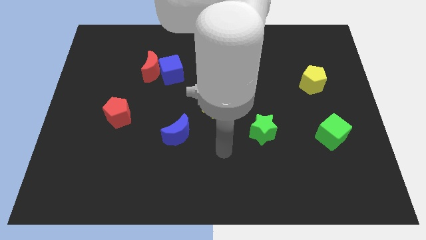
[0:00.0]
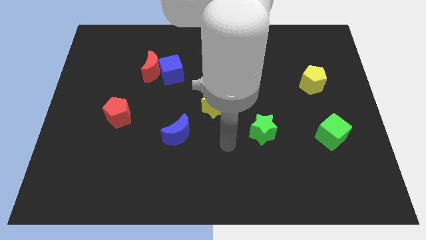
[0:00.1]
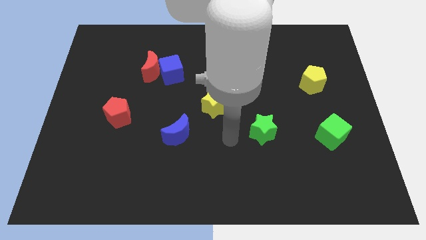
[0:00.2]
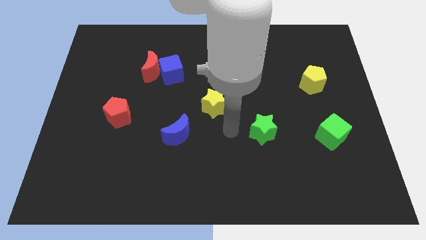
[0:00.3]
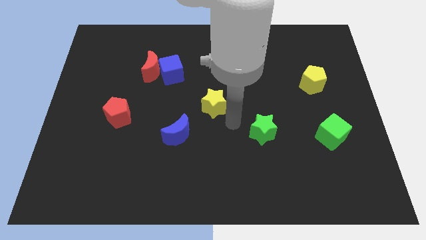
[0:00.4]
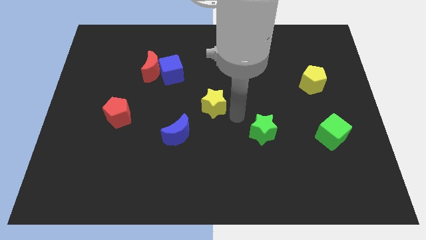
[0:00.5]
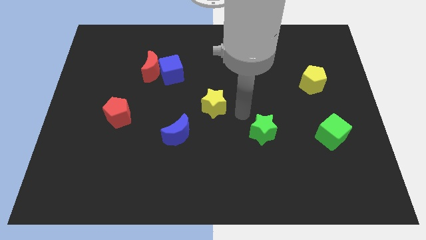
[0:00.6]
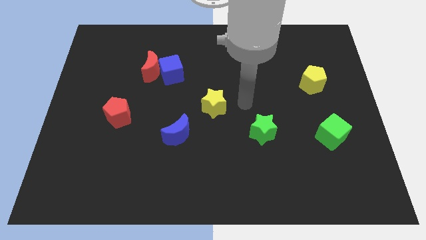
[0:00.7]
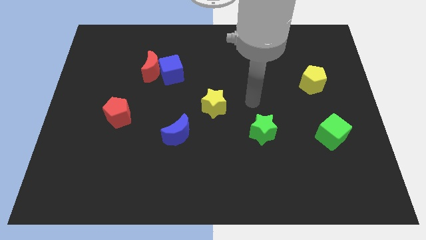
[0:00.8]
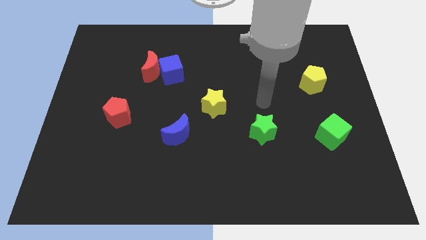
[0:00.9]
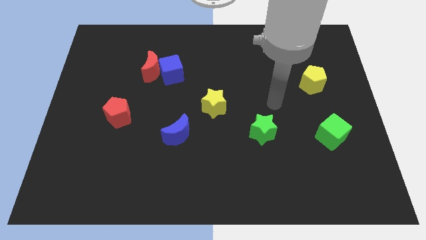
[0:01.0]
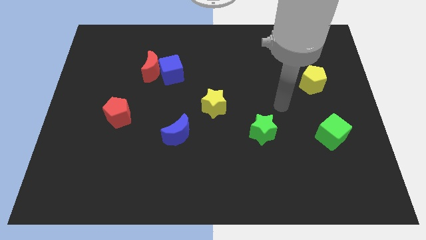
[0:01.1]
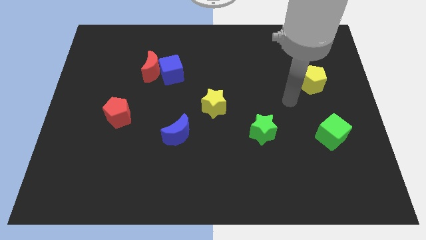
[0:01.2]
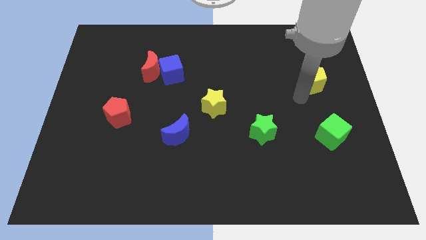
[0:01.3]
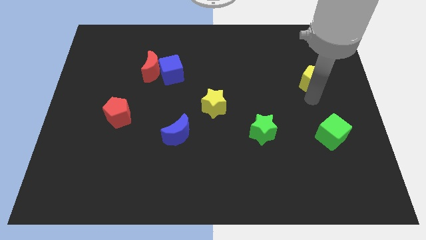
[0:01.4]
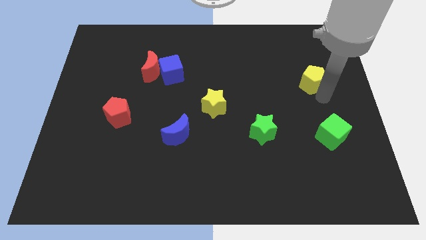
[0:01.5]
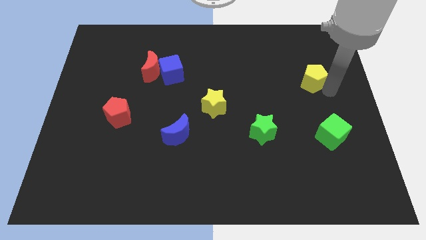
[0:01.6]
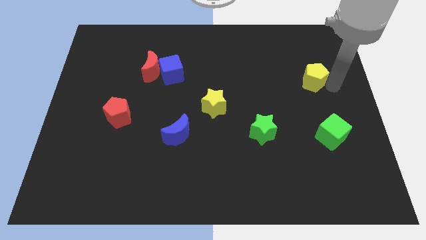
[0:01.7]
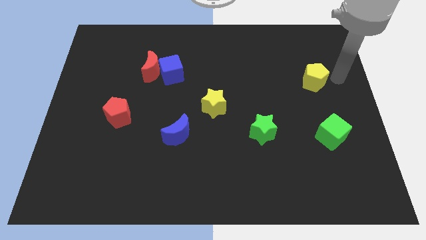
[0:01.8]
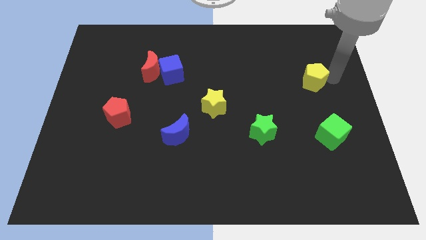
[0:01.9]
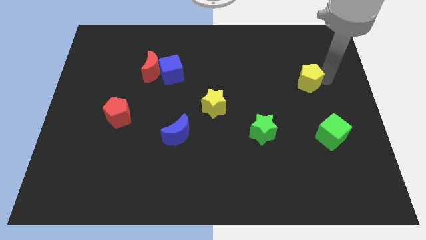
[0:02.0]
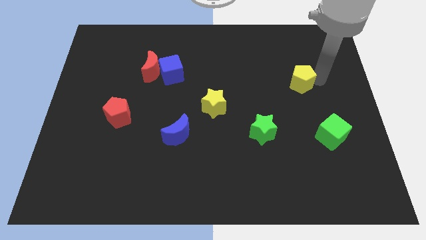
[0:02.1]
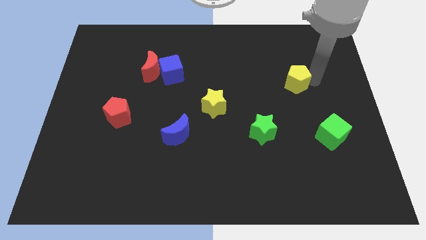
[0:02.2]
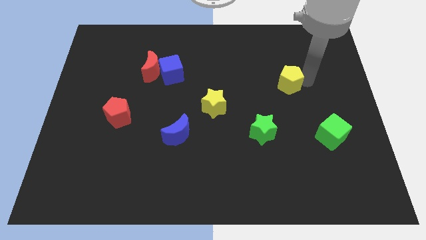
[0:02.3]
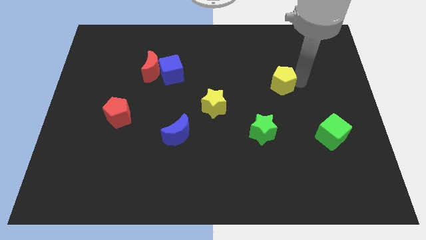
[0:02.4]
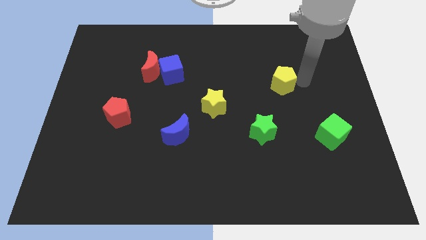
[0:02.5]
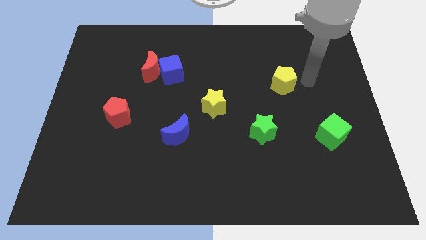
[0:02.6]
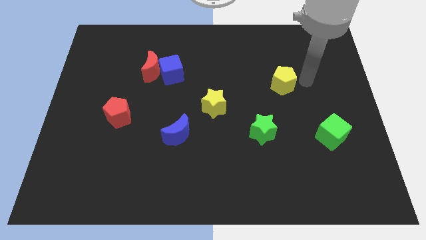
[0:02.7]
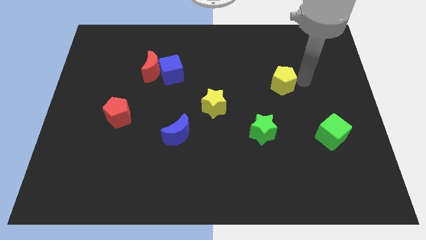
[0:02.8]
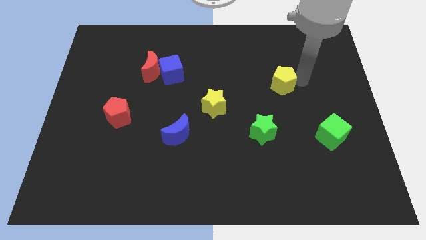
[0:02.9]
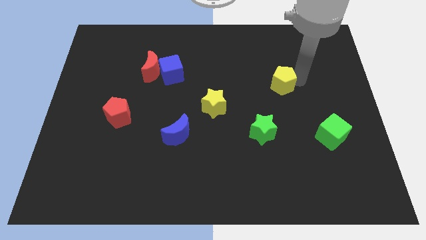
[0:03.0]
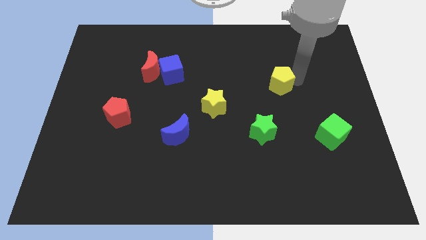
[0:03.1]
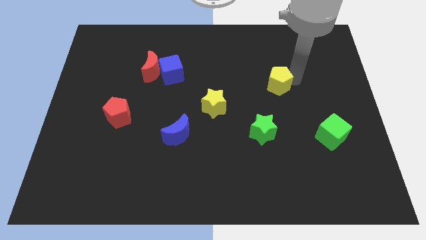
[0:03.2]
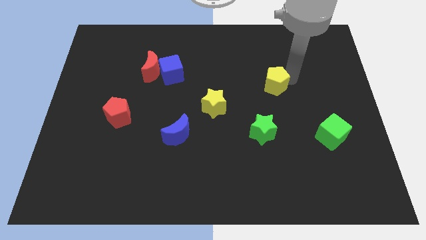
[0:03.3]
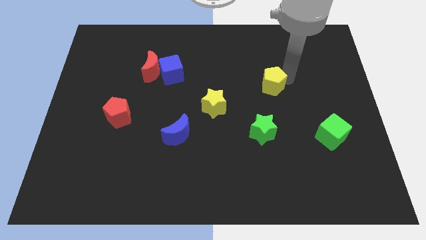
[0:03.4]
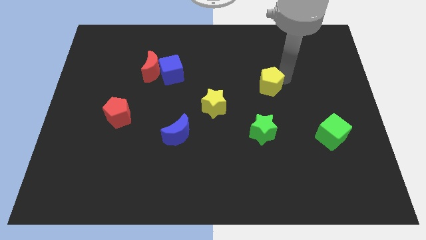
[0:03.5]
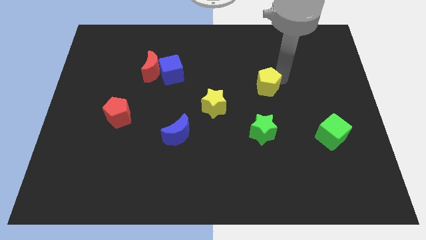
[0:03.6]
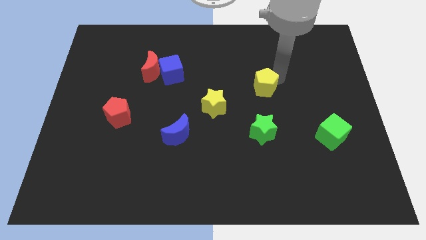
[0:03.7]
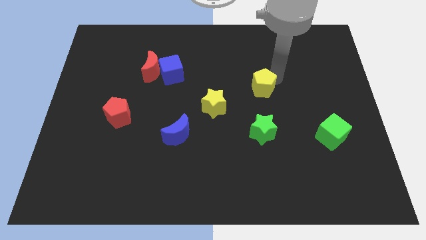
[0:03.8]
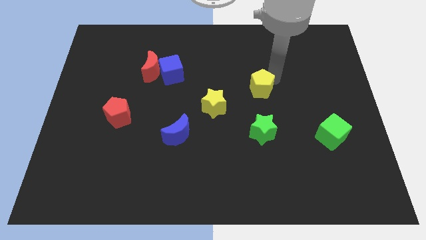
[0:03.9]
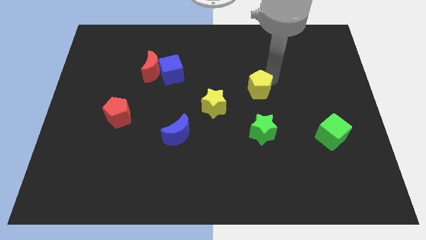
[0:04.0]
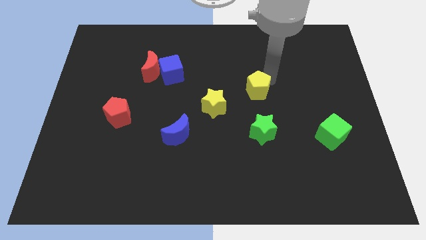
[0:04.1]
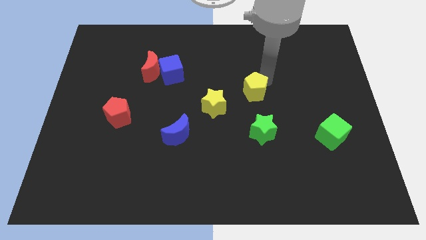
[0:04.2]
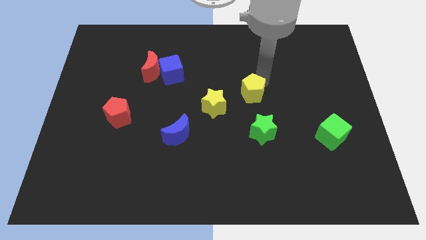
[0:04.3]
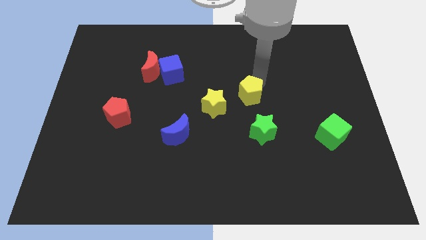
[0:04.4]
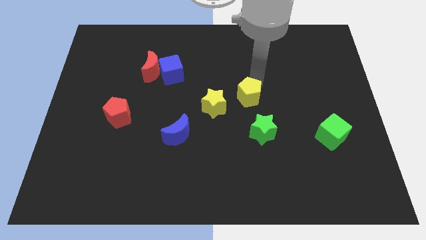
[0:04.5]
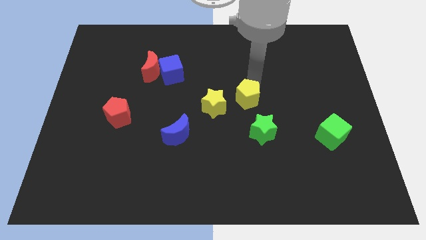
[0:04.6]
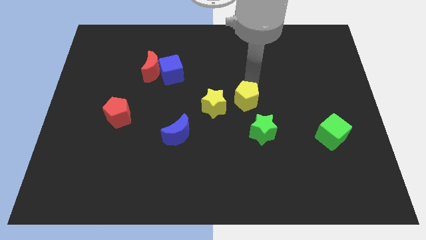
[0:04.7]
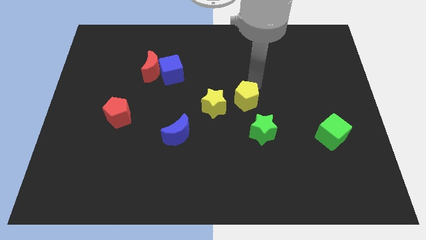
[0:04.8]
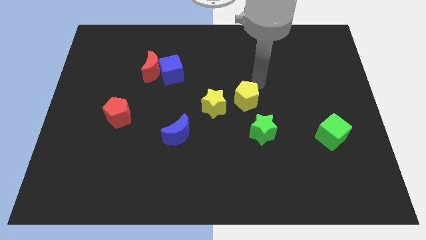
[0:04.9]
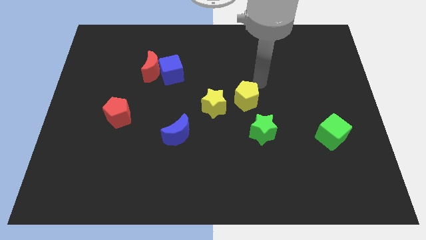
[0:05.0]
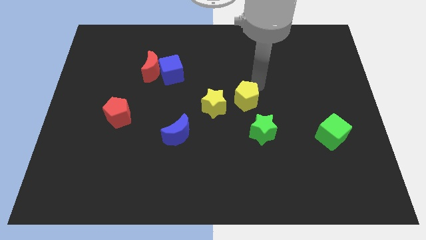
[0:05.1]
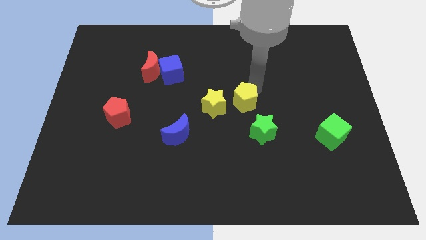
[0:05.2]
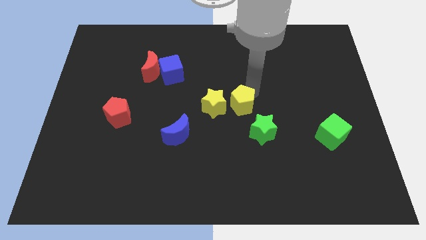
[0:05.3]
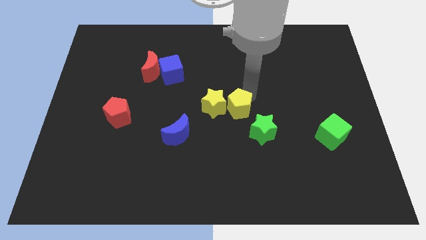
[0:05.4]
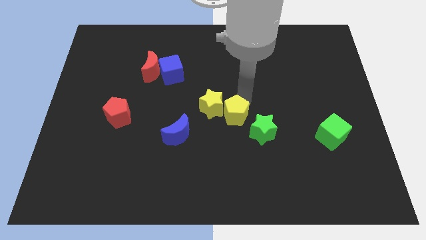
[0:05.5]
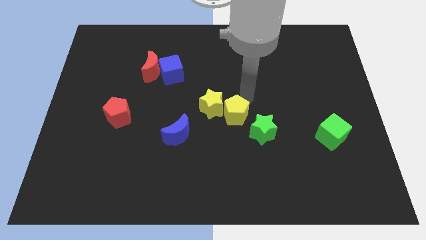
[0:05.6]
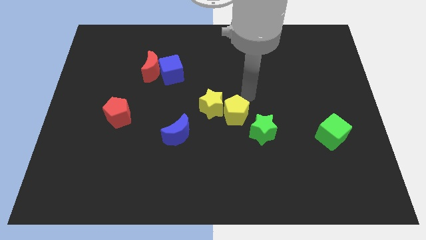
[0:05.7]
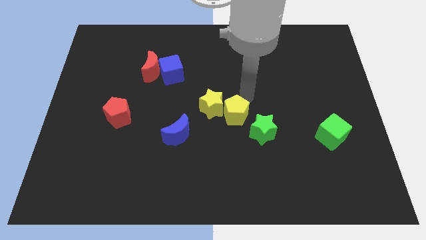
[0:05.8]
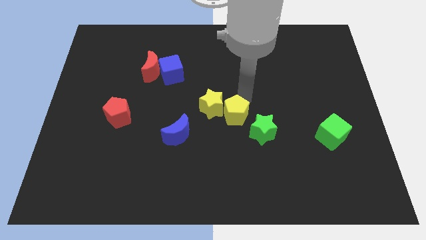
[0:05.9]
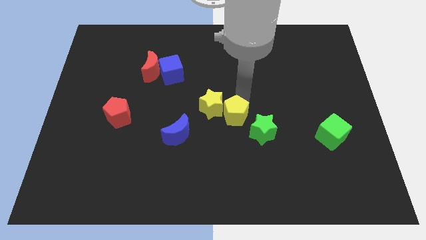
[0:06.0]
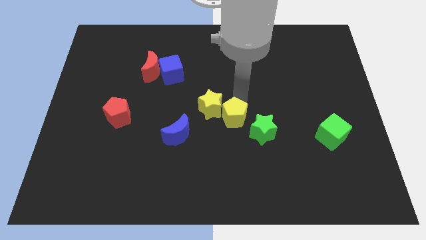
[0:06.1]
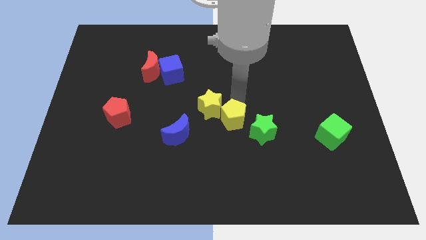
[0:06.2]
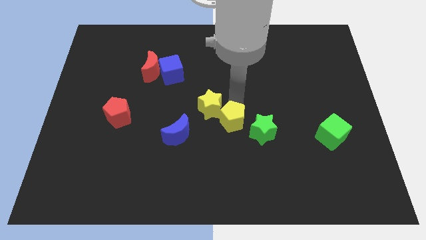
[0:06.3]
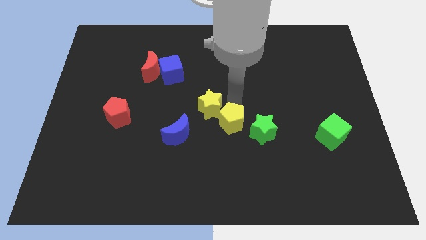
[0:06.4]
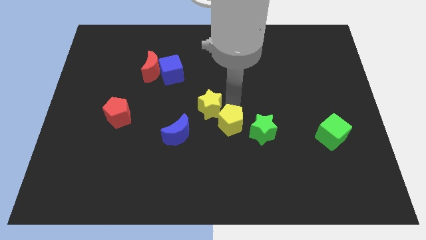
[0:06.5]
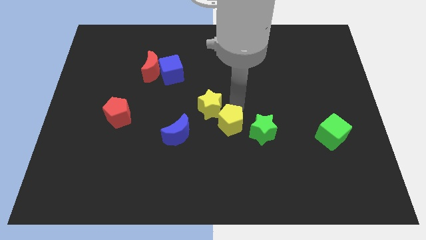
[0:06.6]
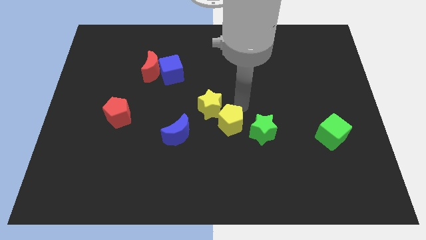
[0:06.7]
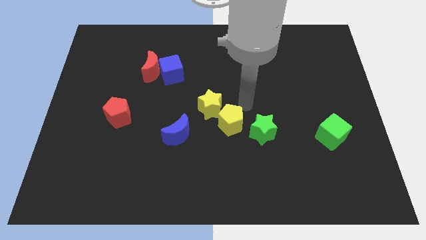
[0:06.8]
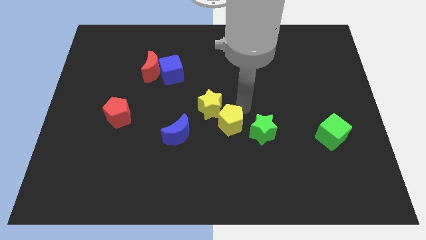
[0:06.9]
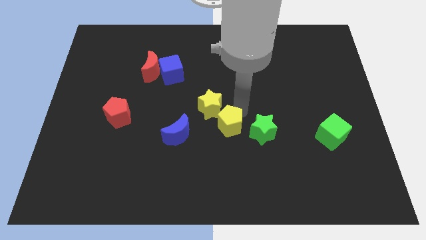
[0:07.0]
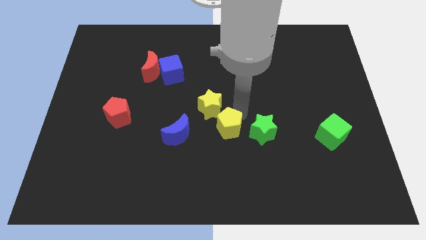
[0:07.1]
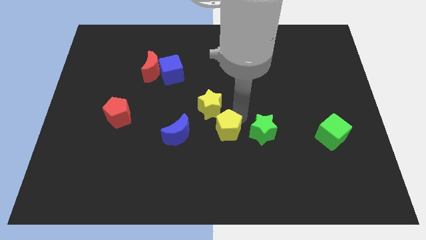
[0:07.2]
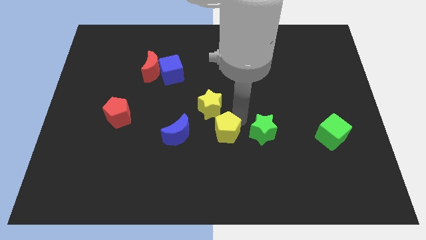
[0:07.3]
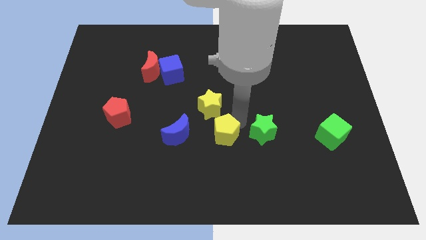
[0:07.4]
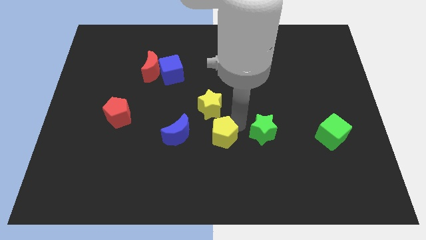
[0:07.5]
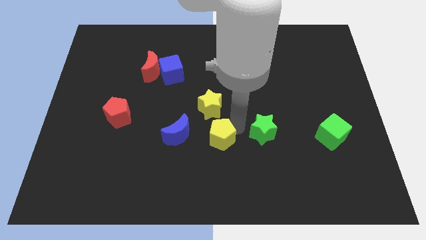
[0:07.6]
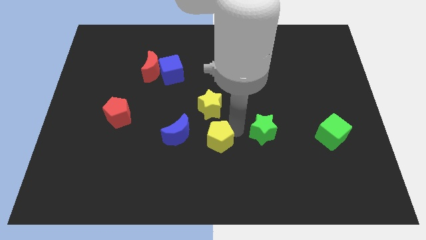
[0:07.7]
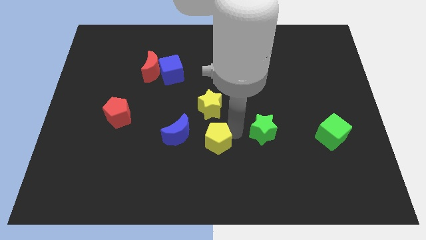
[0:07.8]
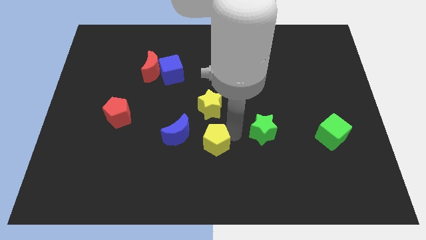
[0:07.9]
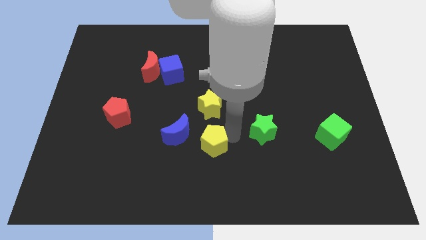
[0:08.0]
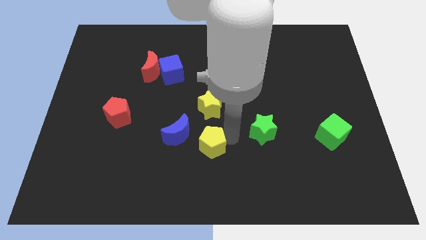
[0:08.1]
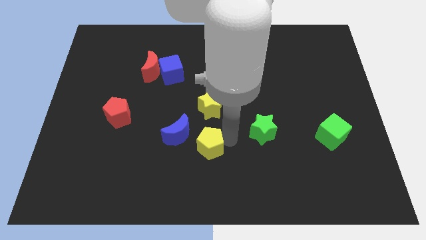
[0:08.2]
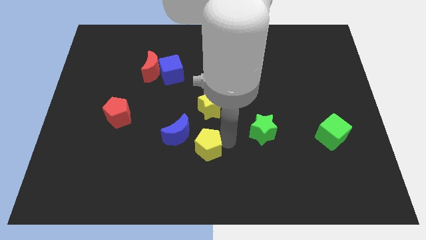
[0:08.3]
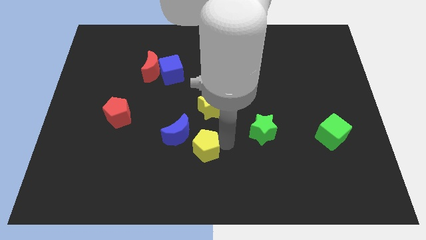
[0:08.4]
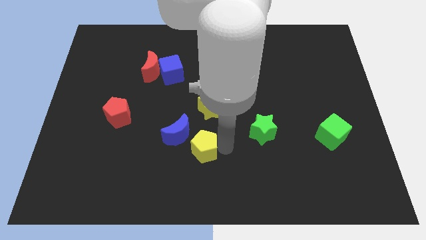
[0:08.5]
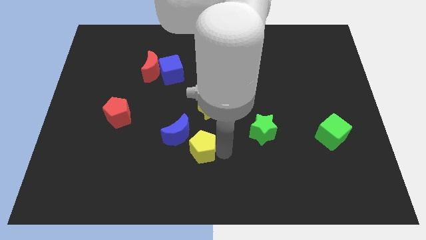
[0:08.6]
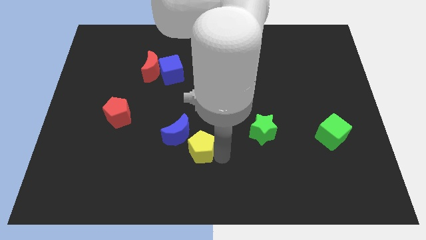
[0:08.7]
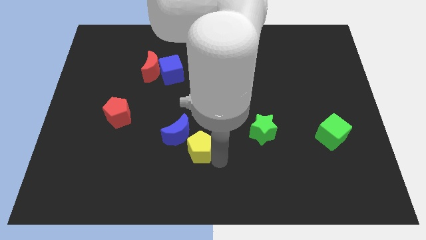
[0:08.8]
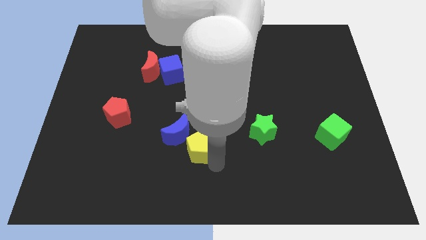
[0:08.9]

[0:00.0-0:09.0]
push the yellow pentagon next to the blue moon
